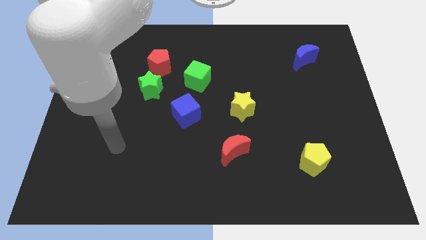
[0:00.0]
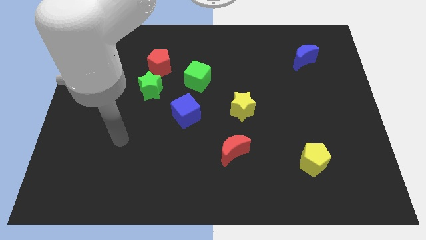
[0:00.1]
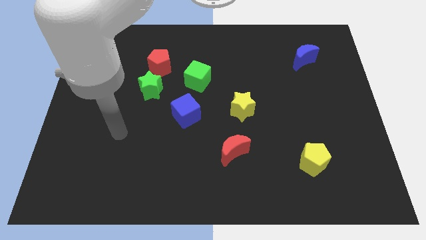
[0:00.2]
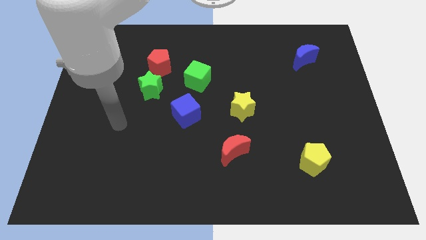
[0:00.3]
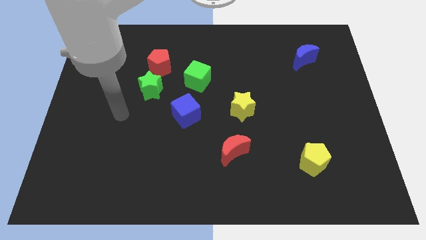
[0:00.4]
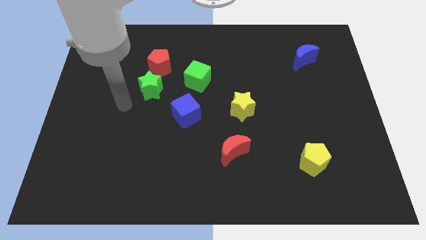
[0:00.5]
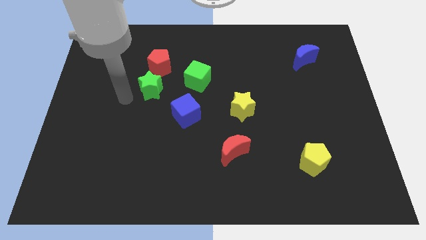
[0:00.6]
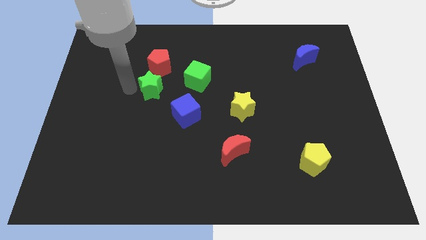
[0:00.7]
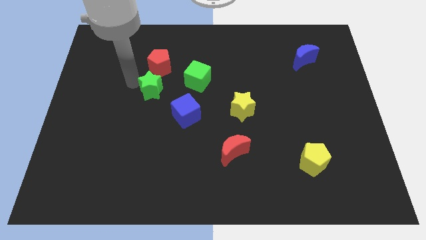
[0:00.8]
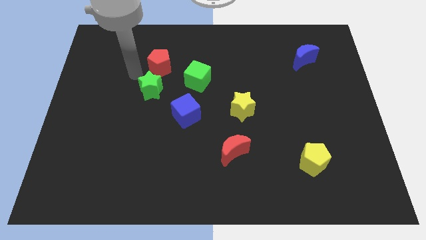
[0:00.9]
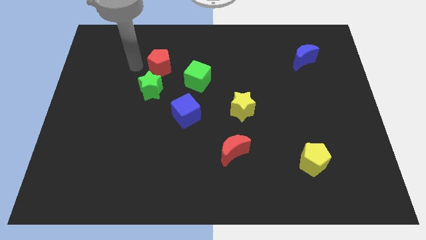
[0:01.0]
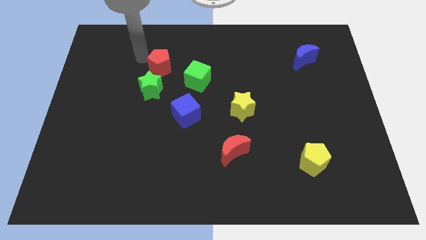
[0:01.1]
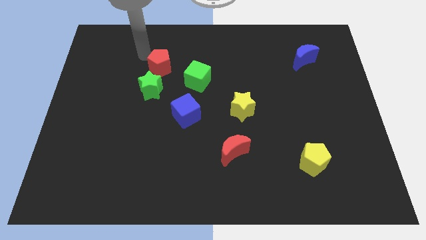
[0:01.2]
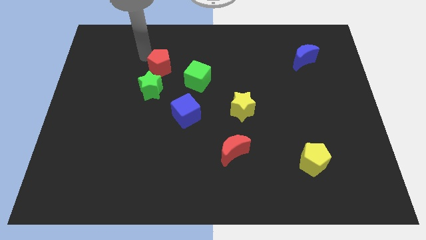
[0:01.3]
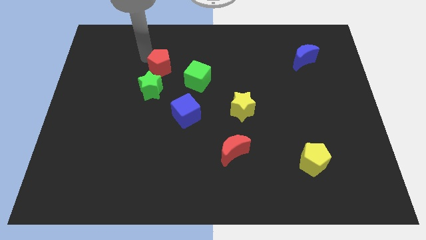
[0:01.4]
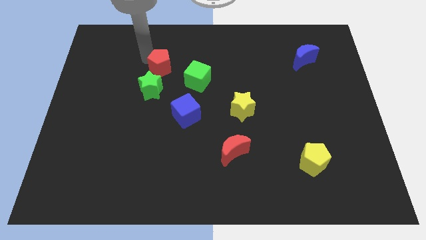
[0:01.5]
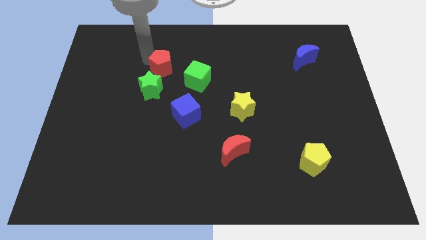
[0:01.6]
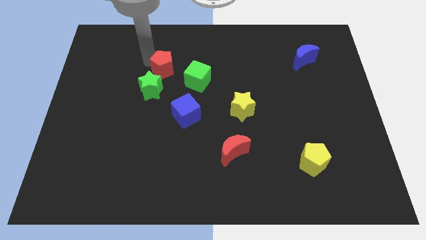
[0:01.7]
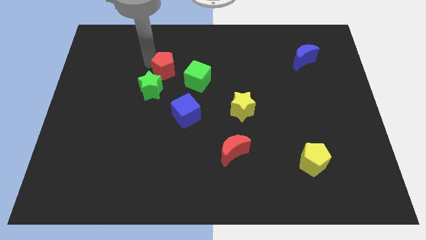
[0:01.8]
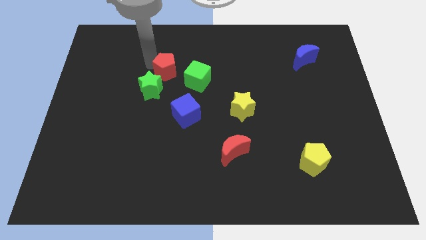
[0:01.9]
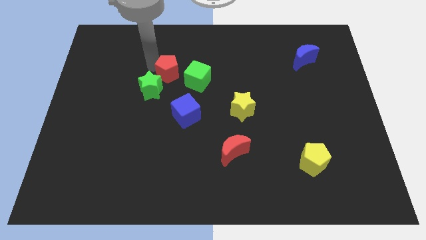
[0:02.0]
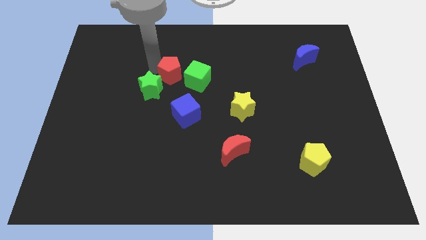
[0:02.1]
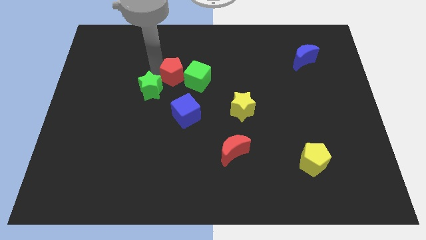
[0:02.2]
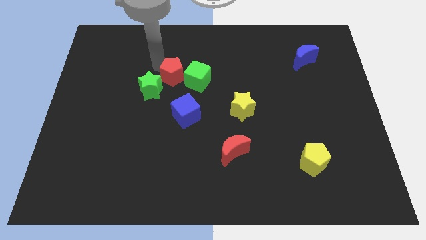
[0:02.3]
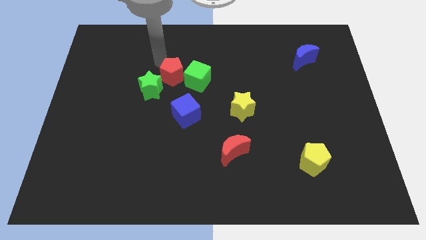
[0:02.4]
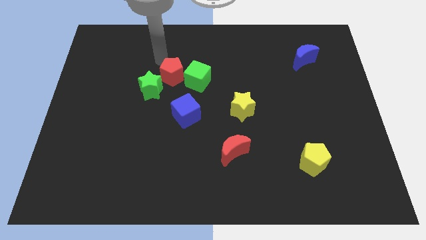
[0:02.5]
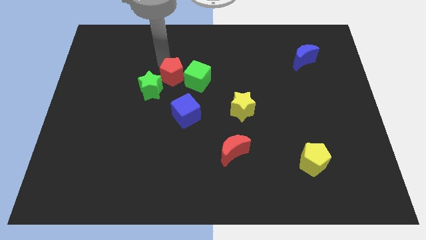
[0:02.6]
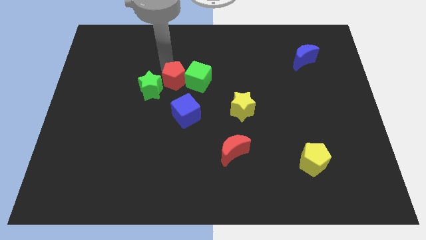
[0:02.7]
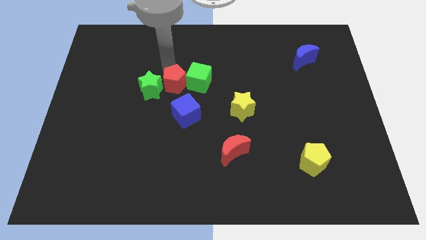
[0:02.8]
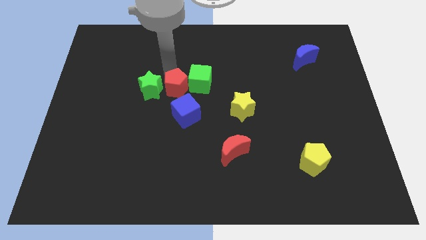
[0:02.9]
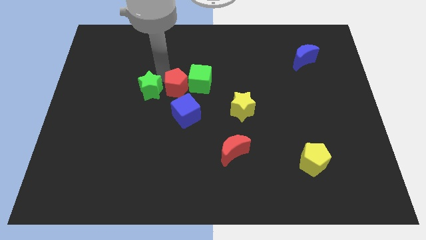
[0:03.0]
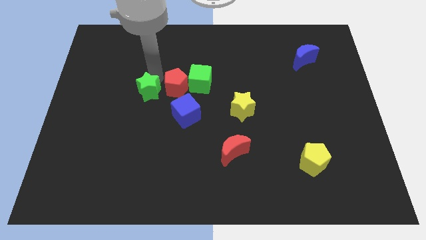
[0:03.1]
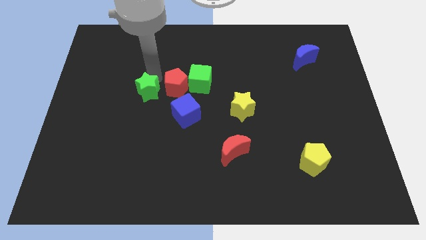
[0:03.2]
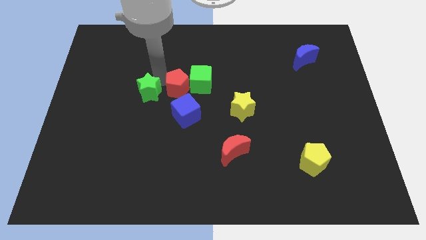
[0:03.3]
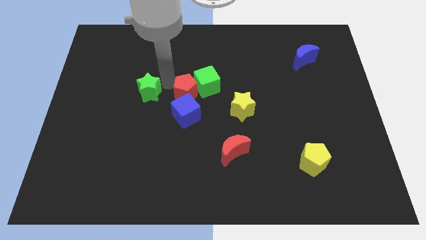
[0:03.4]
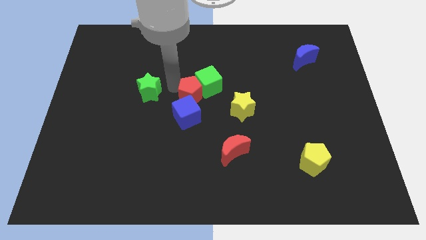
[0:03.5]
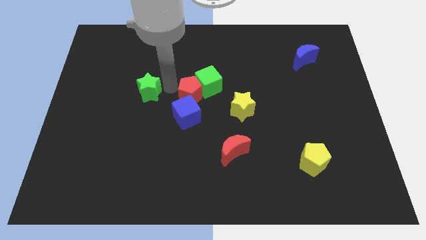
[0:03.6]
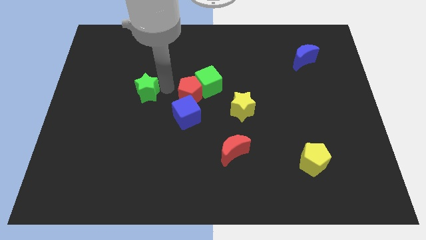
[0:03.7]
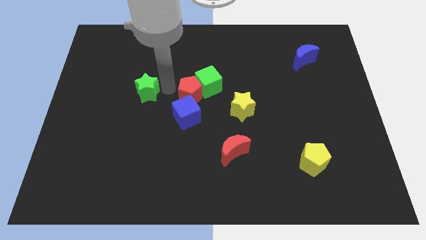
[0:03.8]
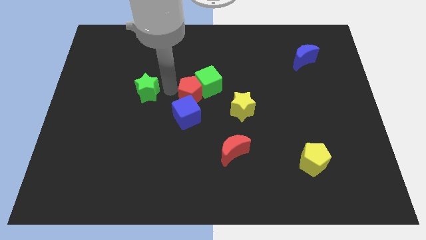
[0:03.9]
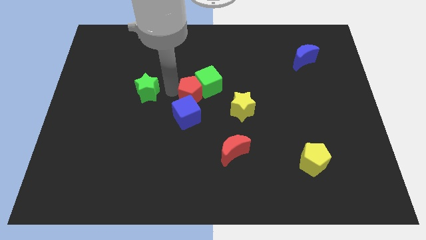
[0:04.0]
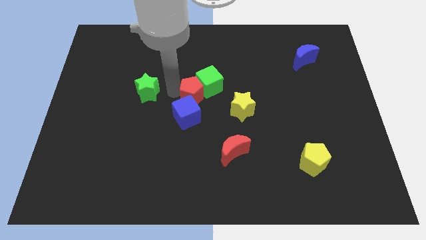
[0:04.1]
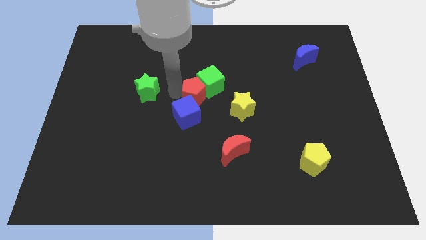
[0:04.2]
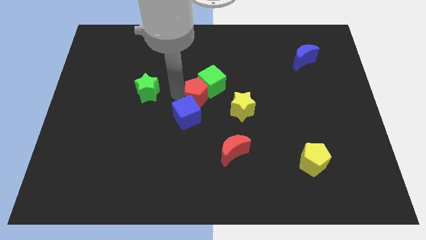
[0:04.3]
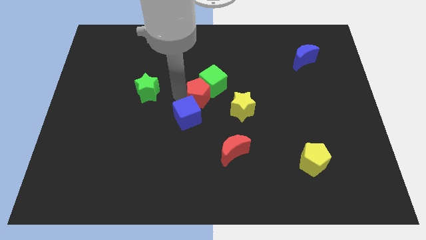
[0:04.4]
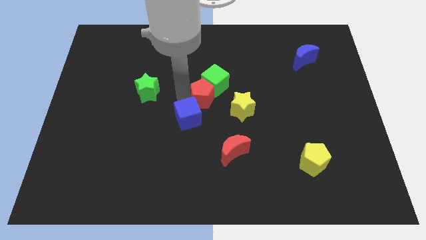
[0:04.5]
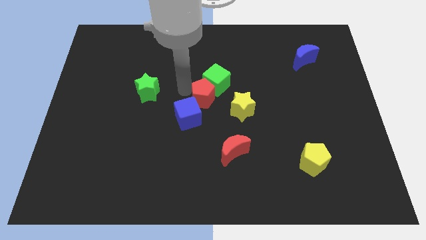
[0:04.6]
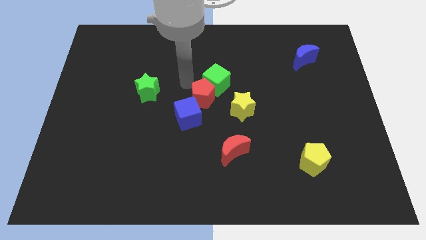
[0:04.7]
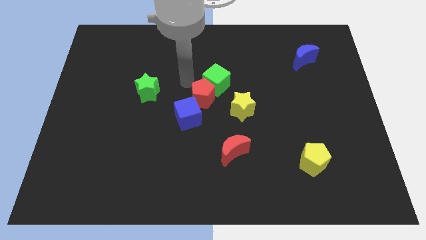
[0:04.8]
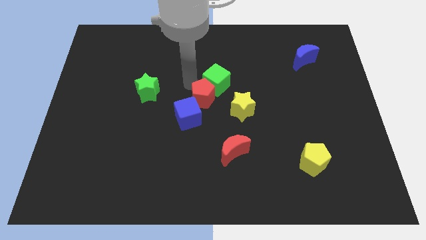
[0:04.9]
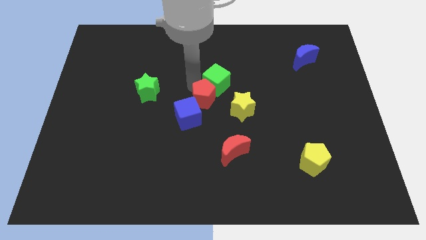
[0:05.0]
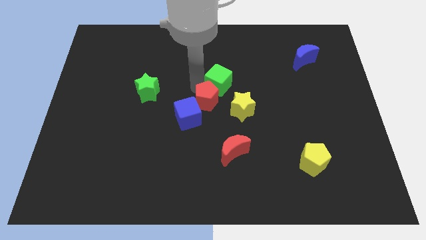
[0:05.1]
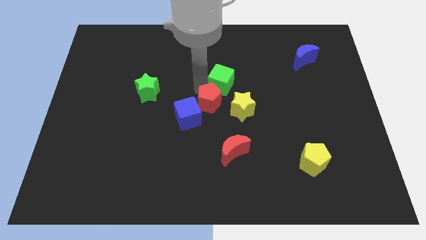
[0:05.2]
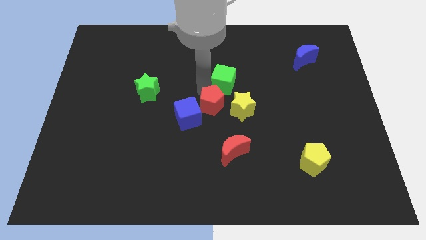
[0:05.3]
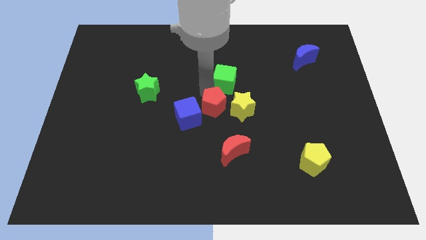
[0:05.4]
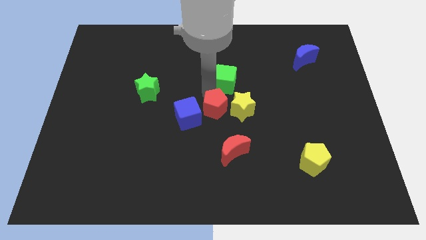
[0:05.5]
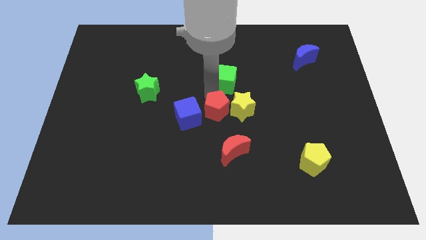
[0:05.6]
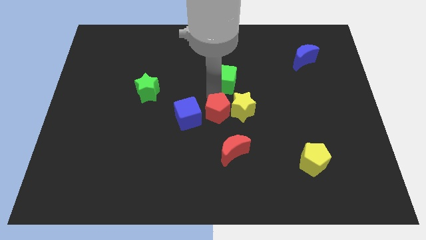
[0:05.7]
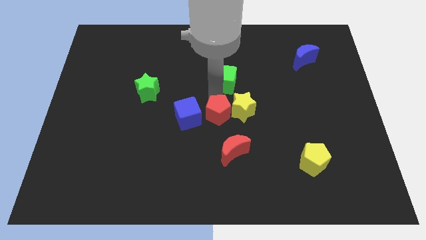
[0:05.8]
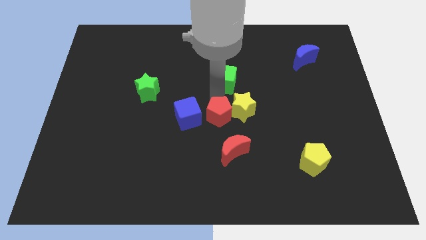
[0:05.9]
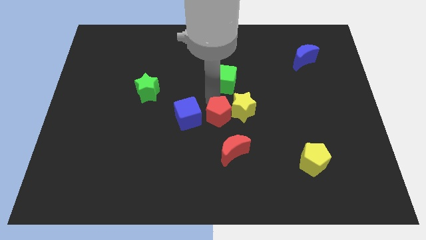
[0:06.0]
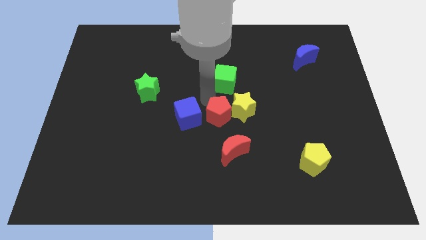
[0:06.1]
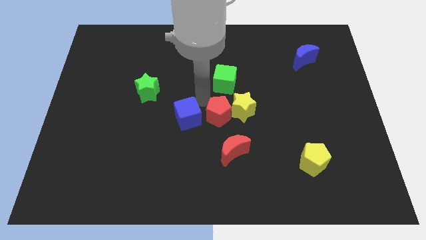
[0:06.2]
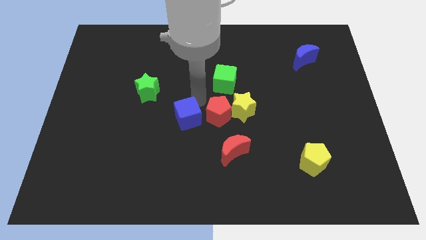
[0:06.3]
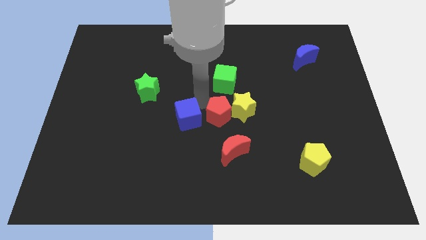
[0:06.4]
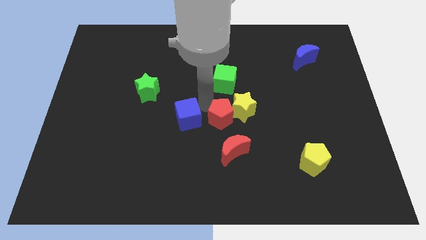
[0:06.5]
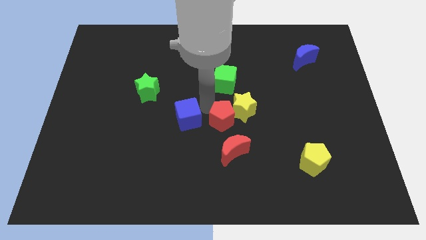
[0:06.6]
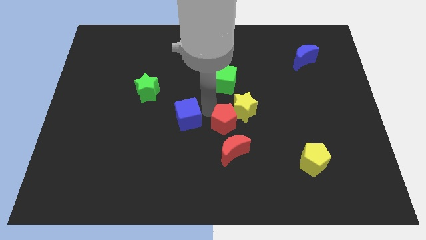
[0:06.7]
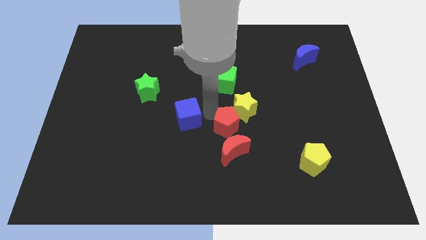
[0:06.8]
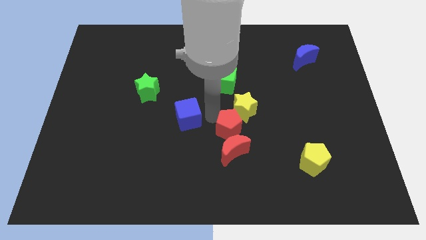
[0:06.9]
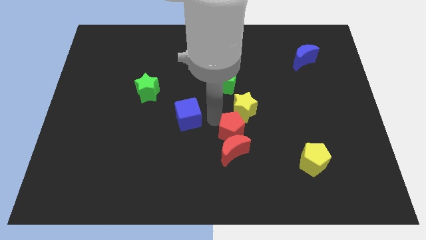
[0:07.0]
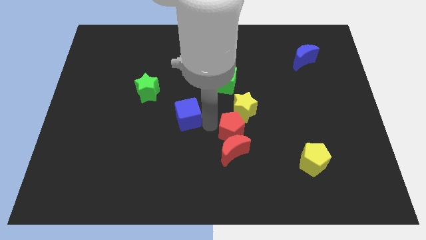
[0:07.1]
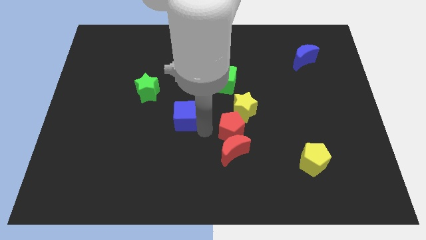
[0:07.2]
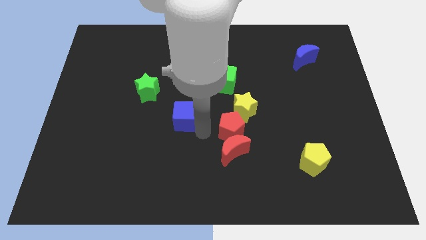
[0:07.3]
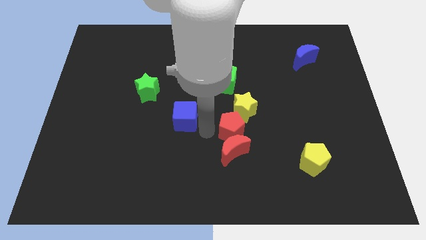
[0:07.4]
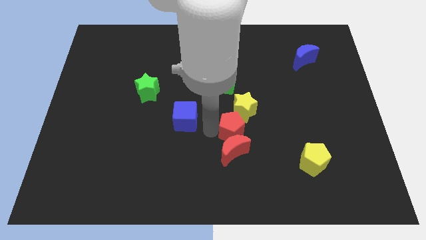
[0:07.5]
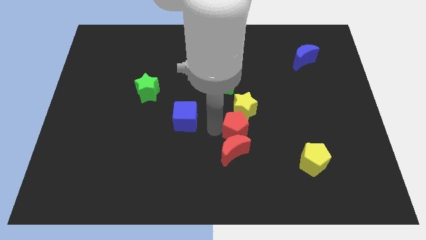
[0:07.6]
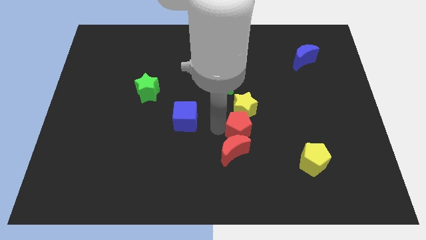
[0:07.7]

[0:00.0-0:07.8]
put the red pentagon diagonally down and to the right of the yellow star
